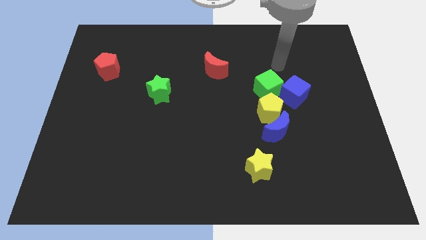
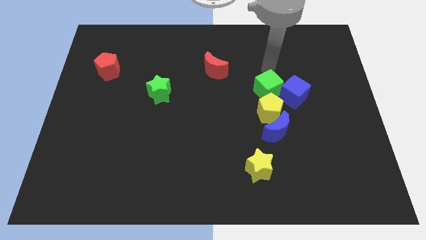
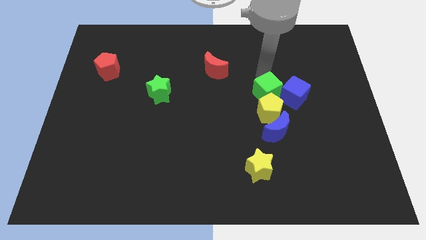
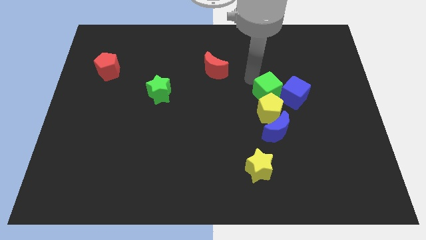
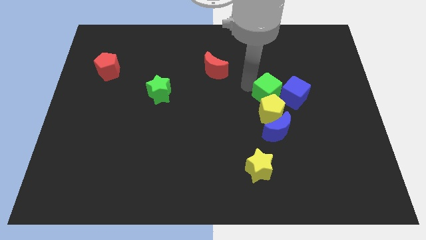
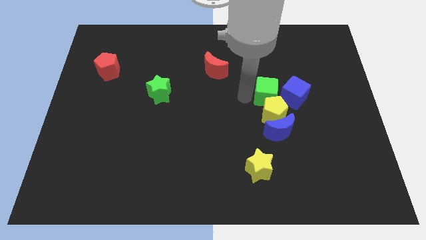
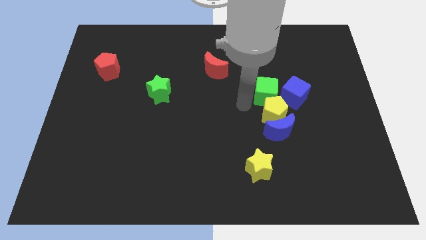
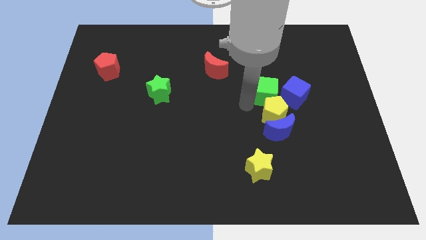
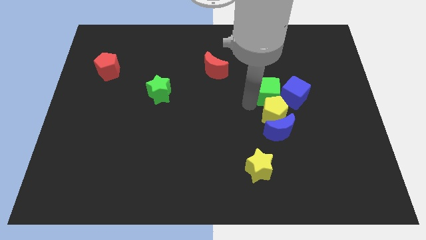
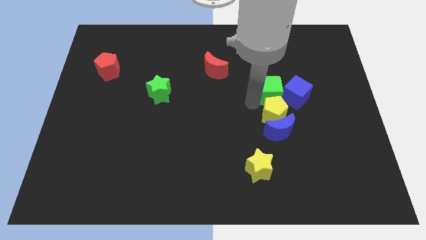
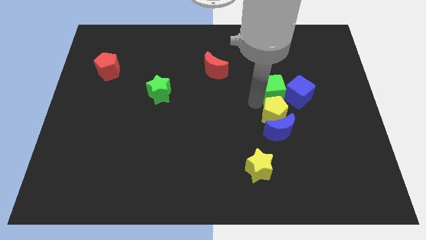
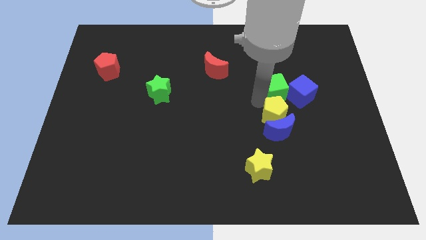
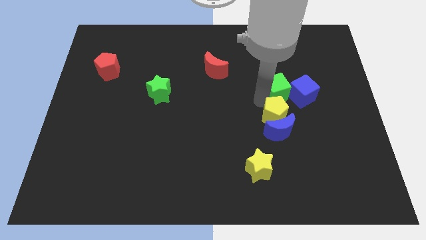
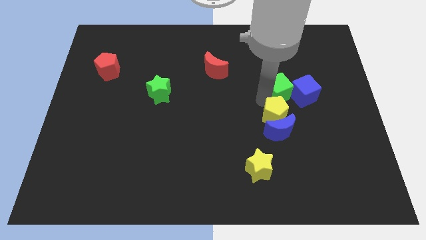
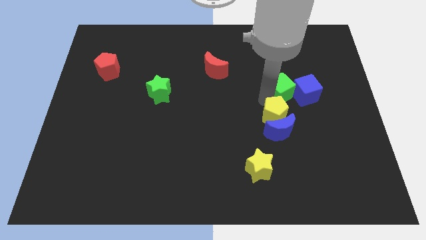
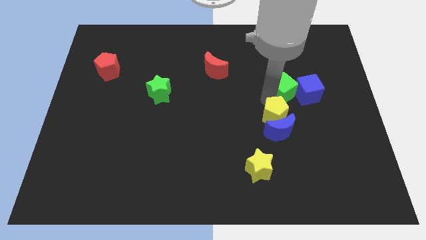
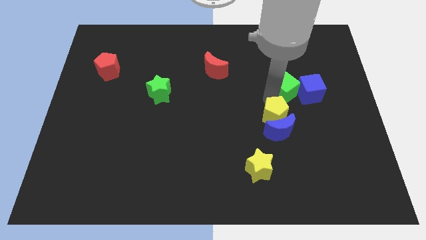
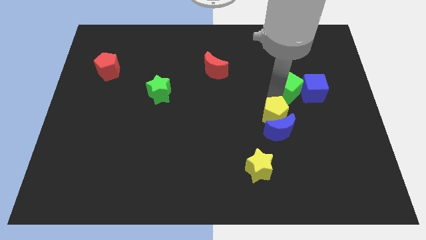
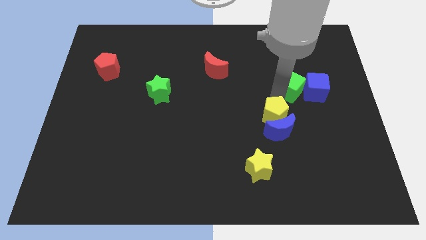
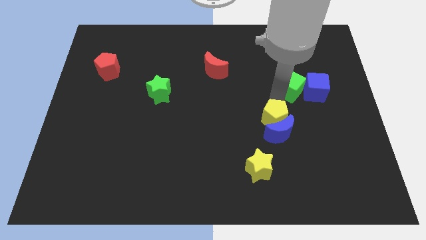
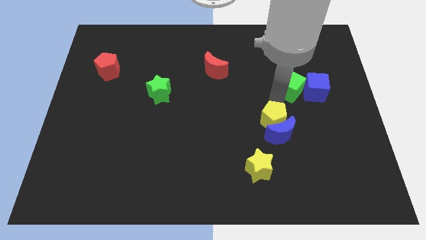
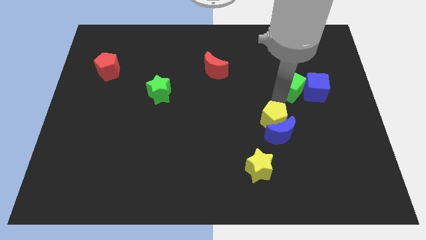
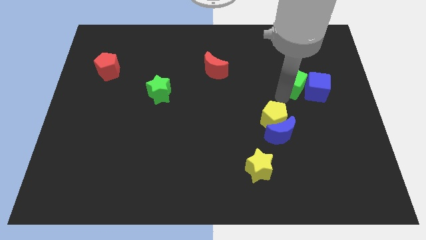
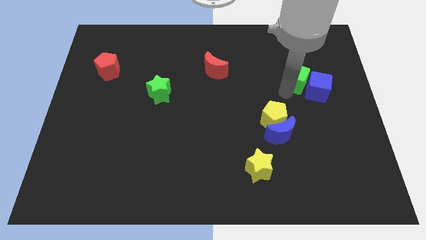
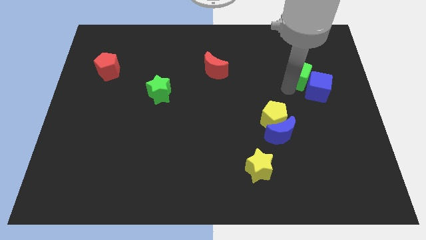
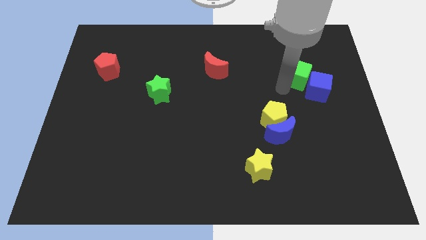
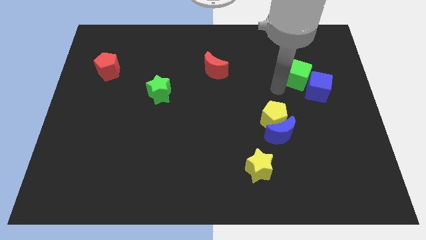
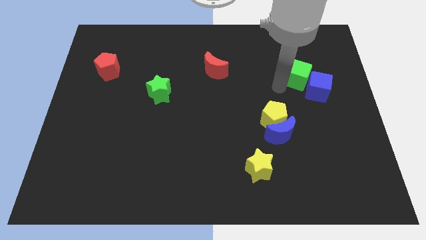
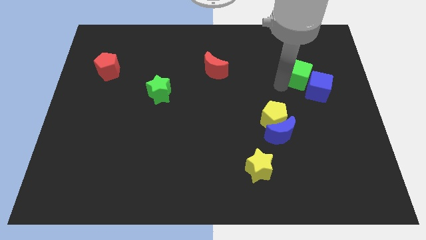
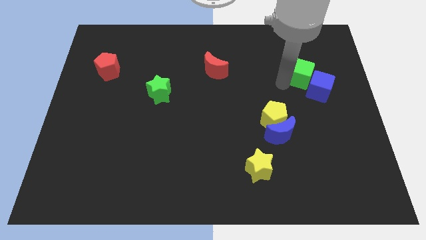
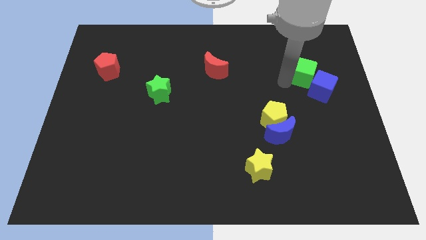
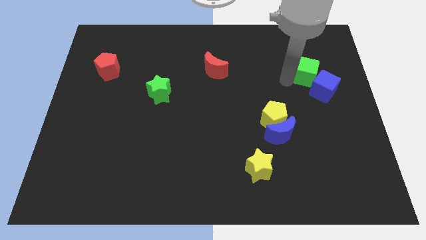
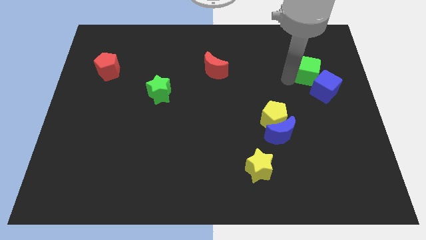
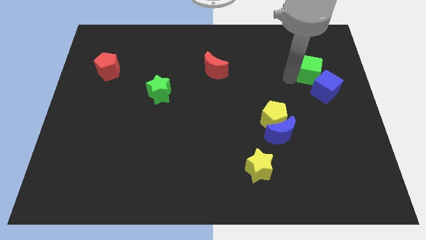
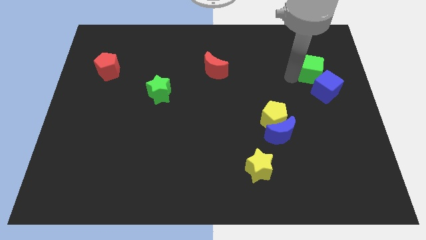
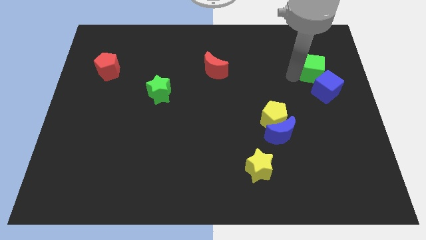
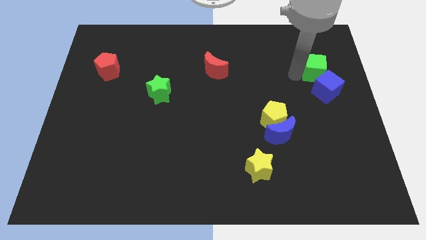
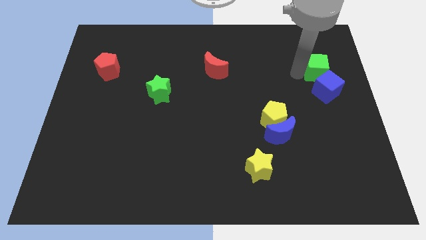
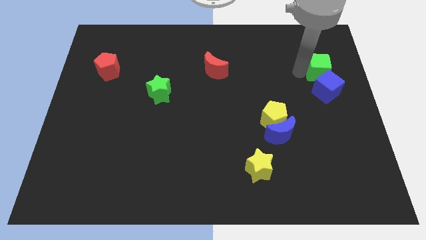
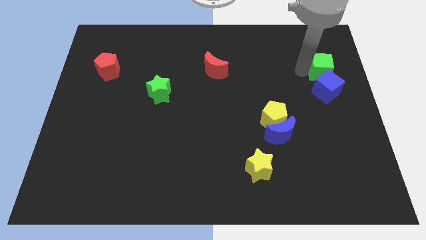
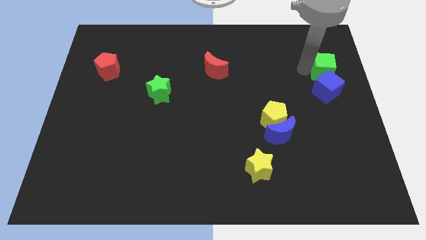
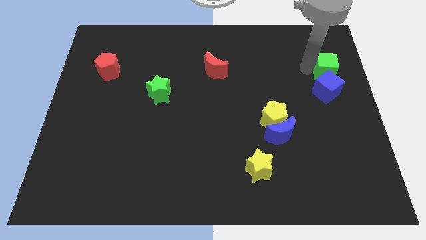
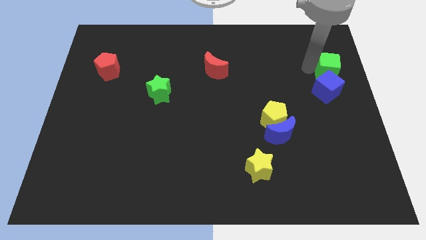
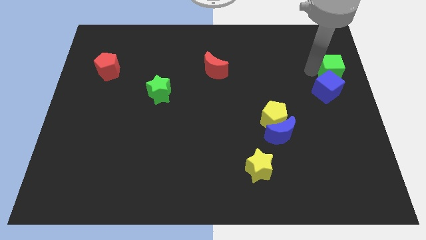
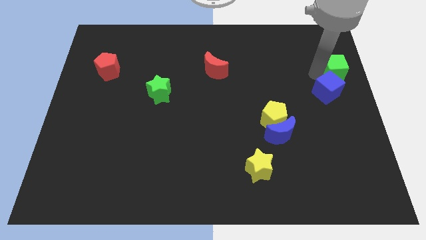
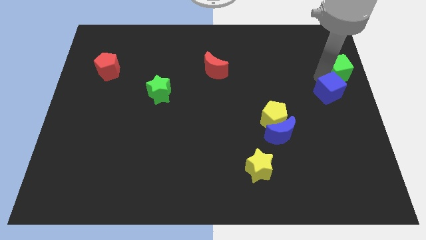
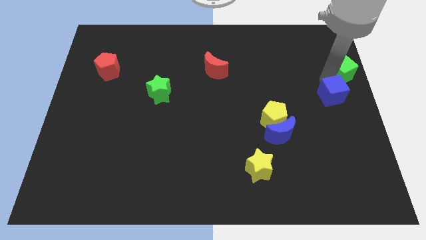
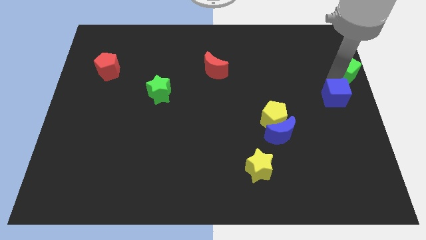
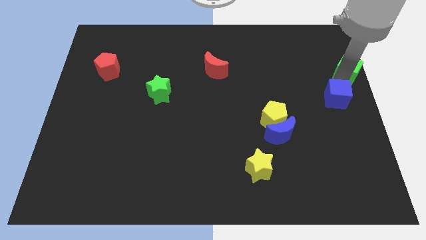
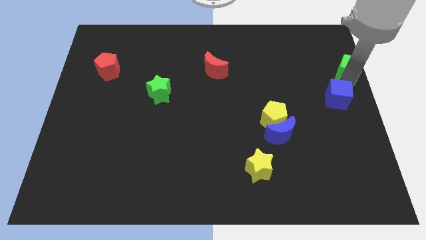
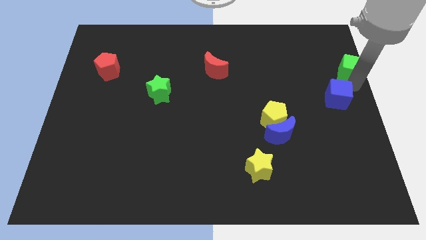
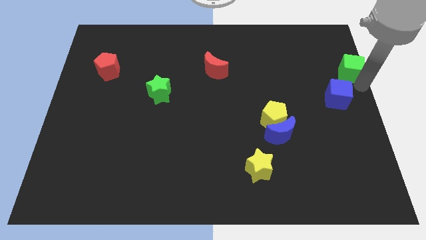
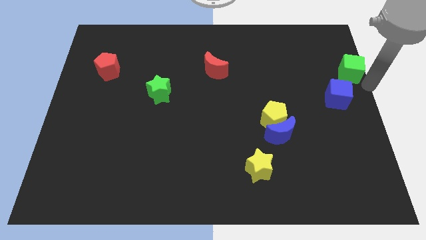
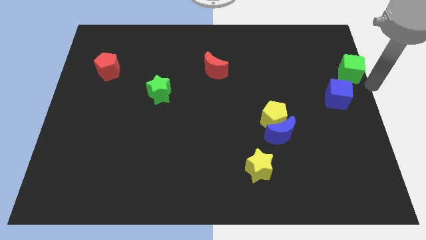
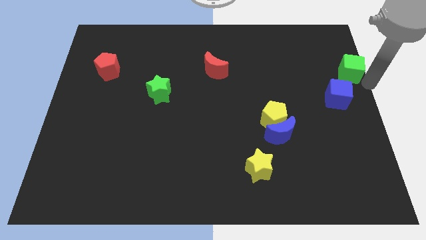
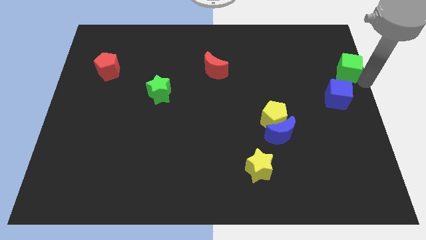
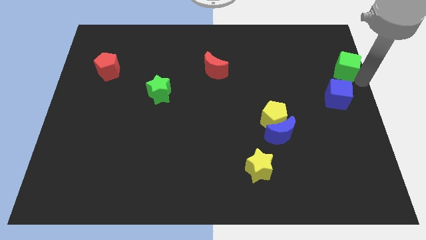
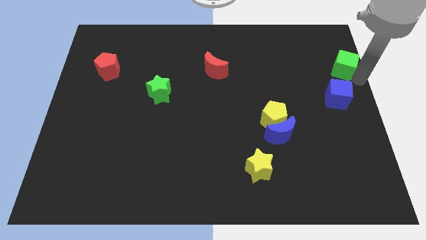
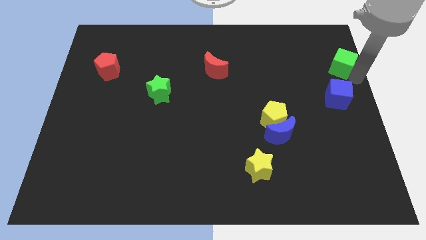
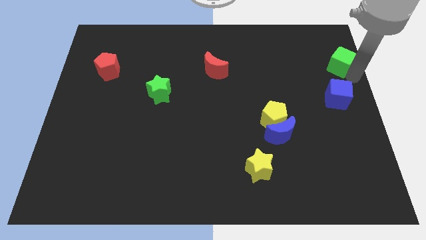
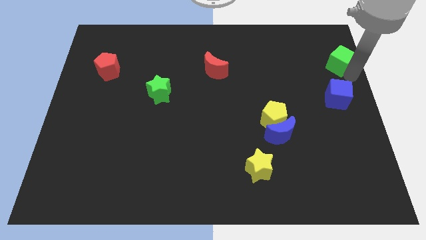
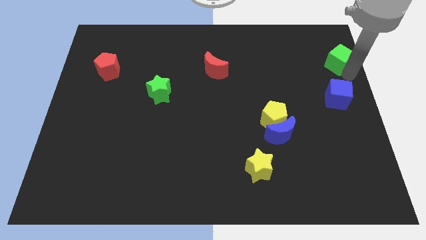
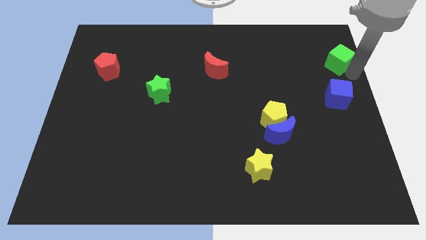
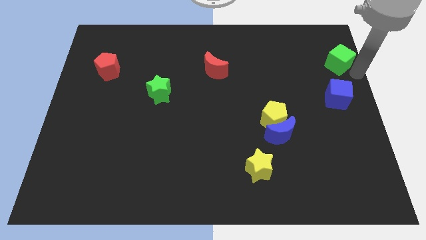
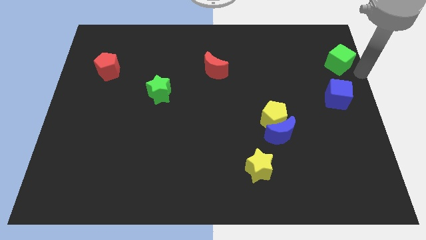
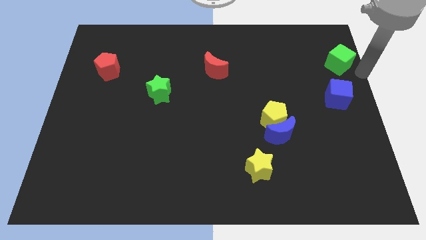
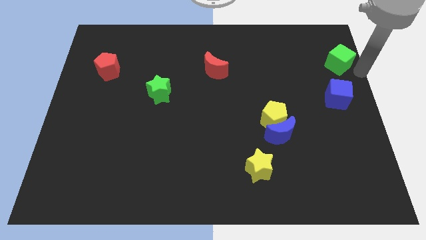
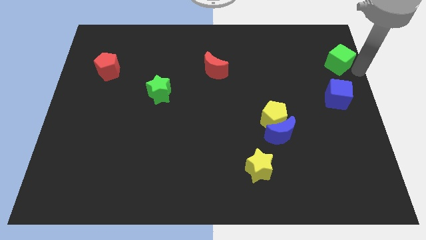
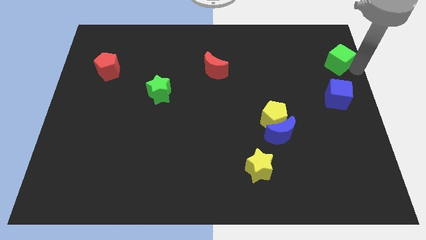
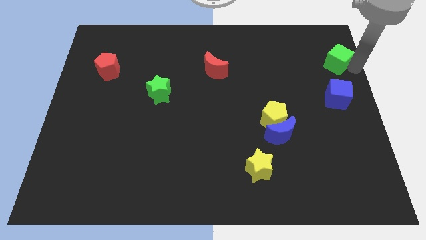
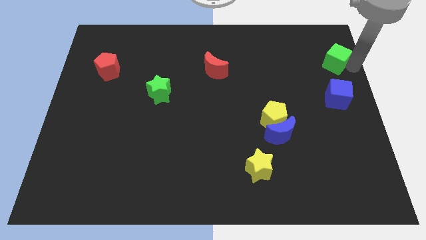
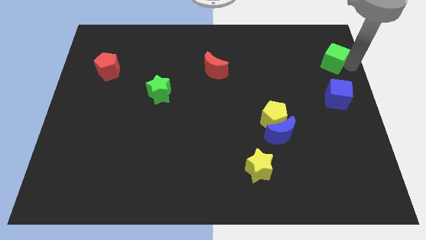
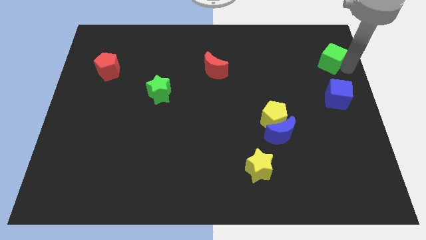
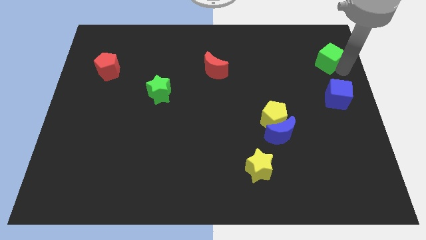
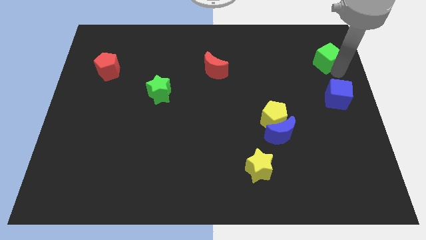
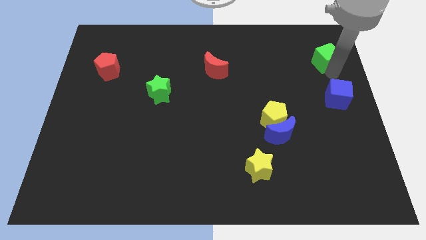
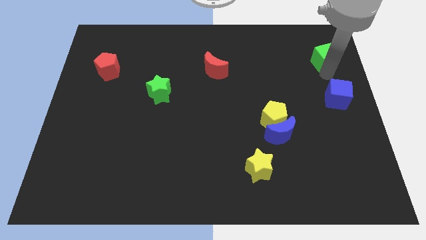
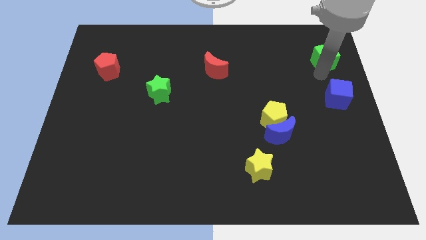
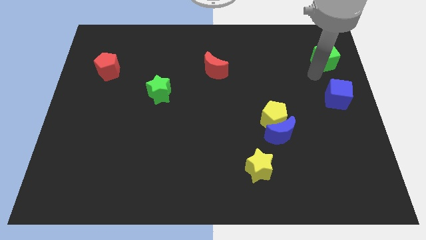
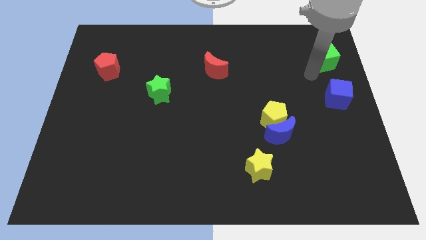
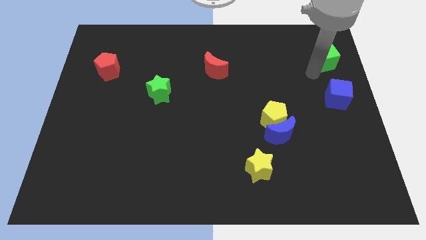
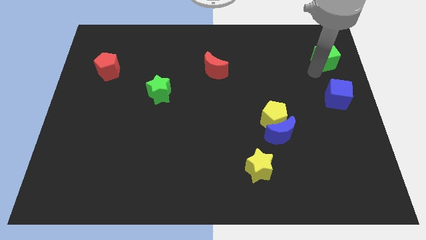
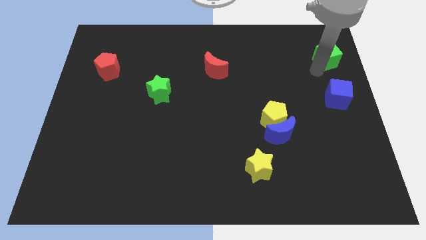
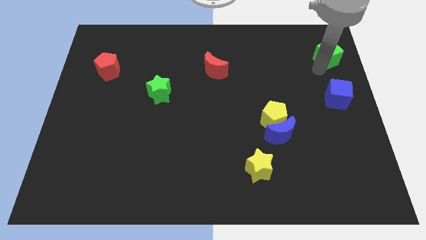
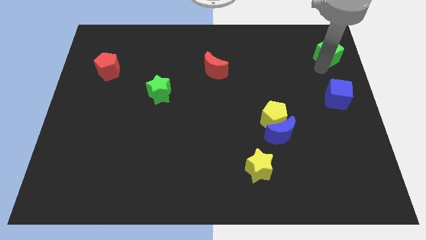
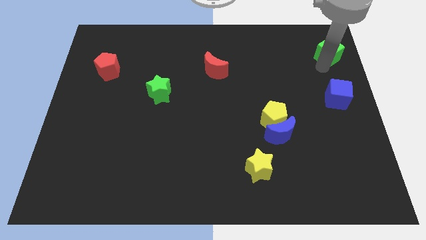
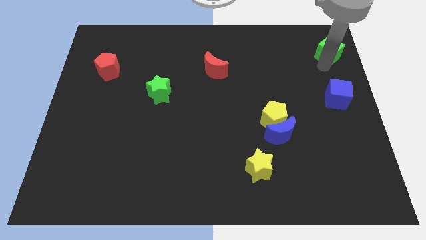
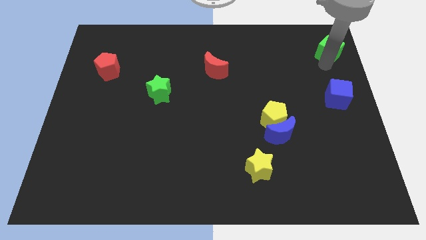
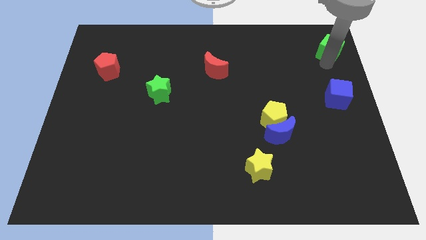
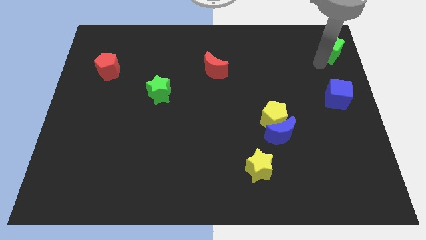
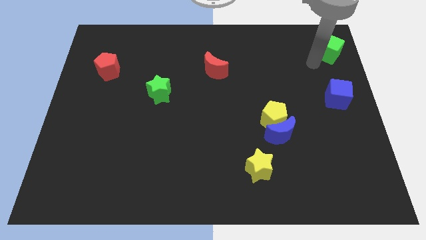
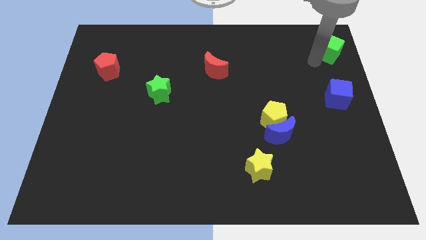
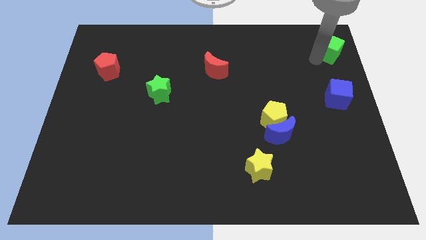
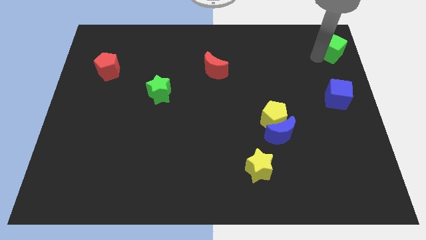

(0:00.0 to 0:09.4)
push the green cube to the upper right corner
